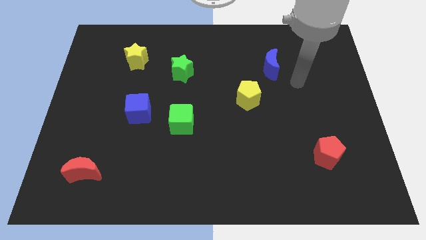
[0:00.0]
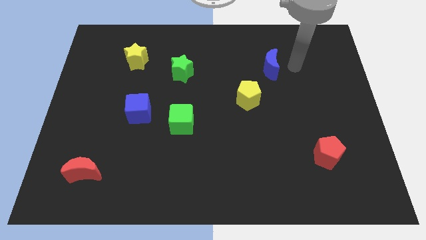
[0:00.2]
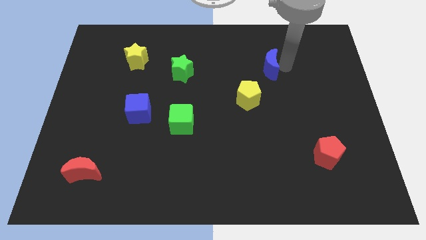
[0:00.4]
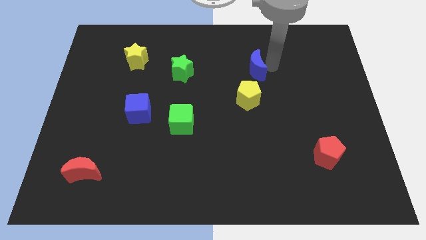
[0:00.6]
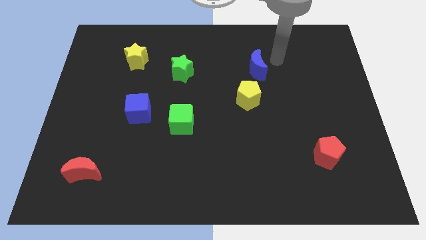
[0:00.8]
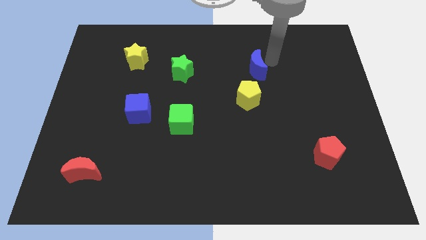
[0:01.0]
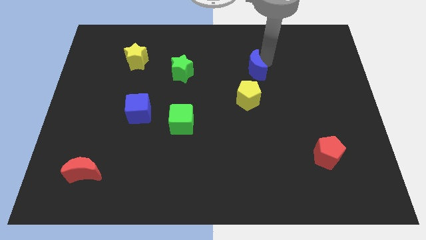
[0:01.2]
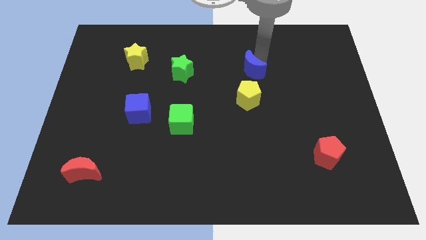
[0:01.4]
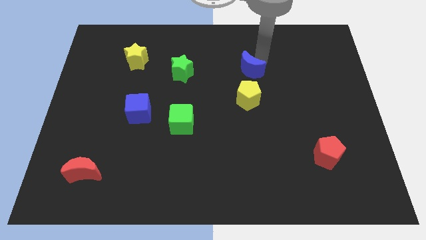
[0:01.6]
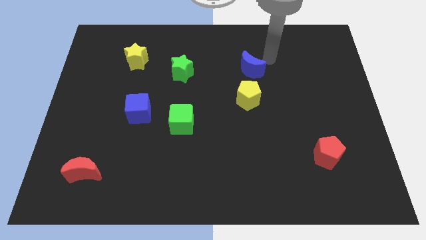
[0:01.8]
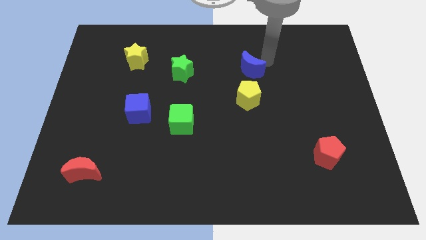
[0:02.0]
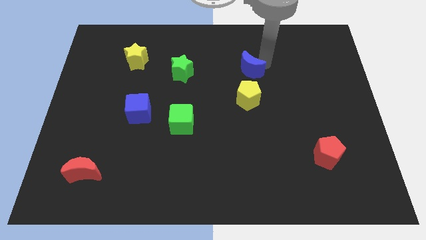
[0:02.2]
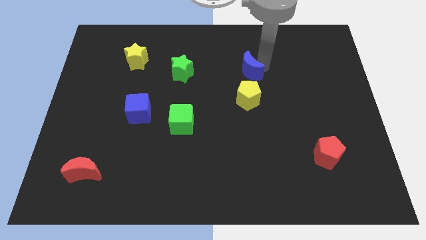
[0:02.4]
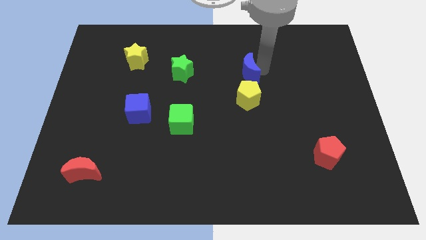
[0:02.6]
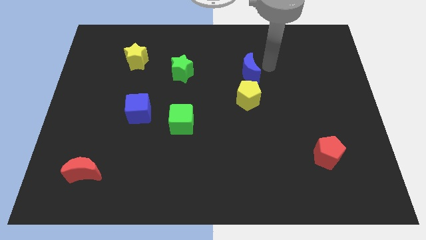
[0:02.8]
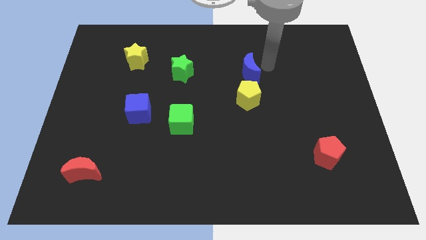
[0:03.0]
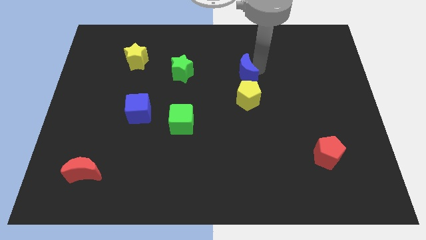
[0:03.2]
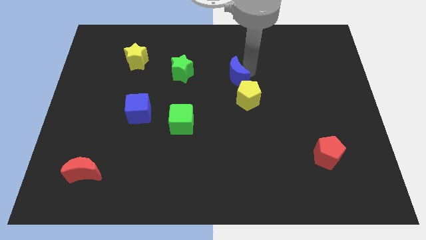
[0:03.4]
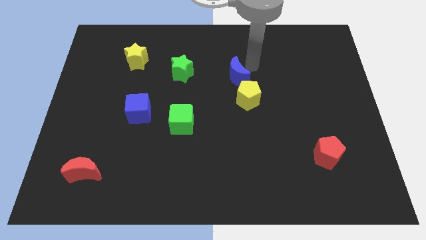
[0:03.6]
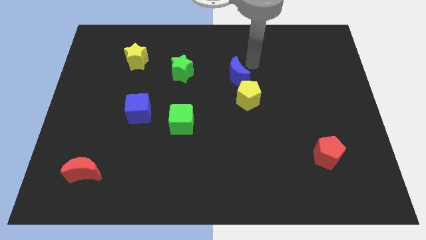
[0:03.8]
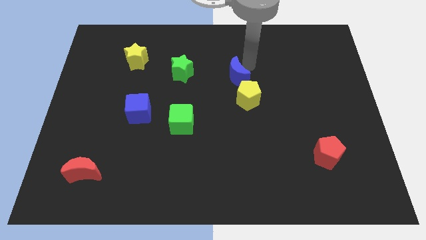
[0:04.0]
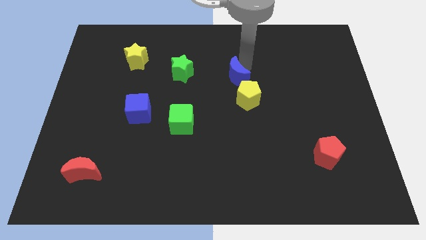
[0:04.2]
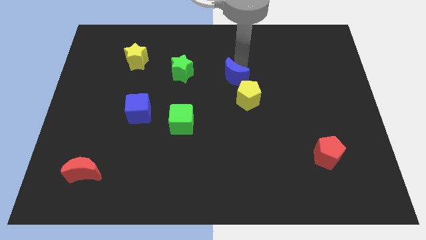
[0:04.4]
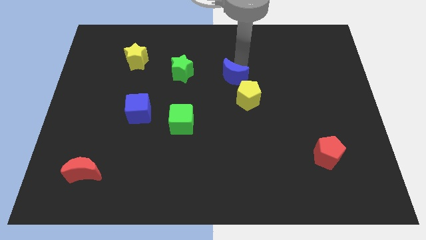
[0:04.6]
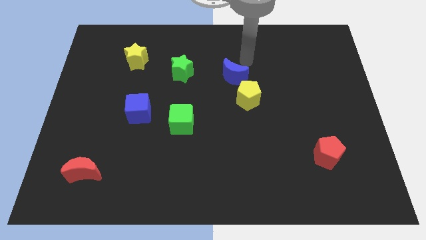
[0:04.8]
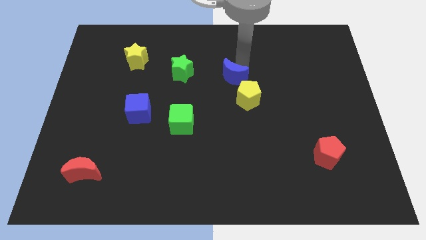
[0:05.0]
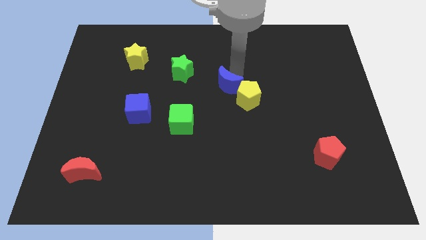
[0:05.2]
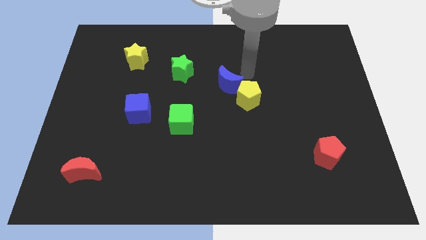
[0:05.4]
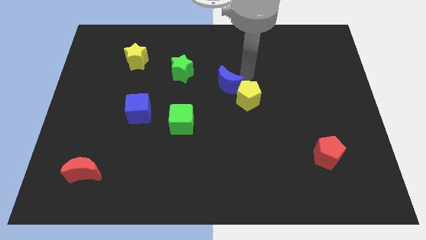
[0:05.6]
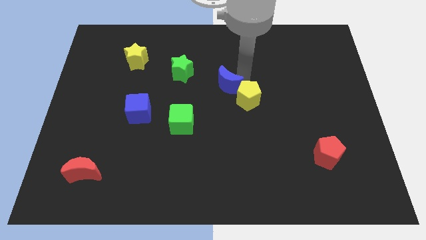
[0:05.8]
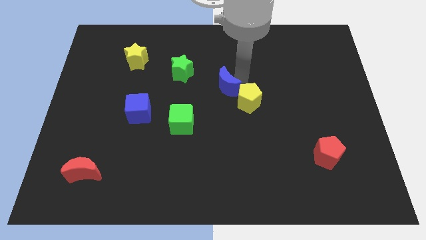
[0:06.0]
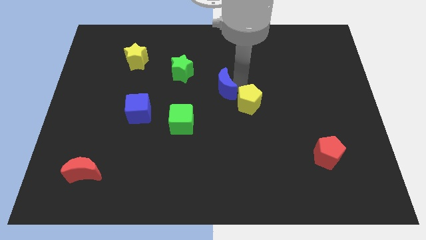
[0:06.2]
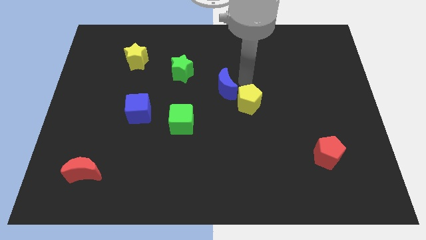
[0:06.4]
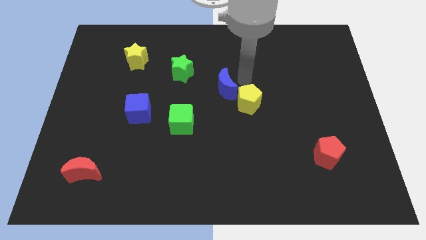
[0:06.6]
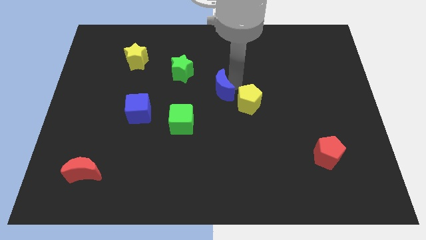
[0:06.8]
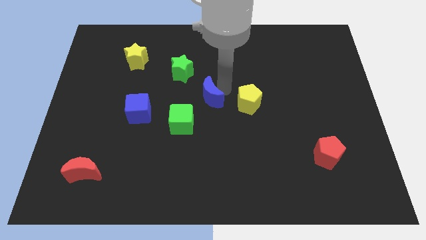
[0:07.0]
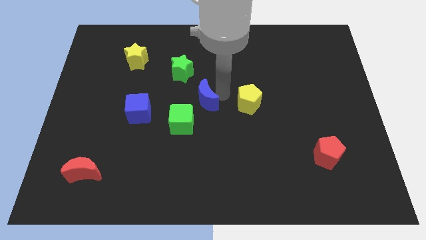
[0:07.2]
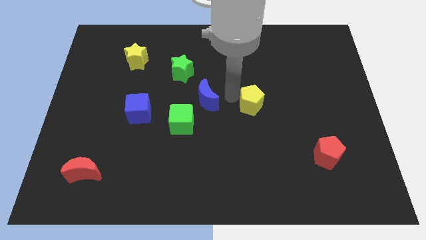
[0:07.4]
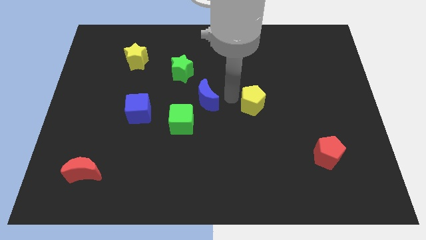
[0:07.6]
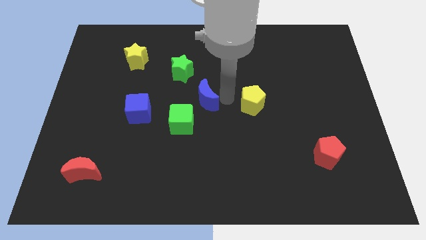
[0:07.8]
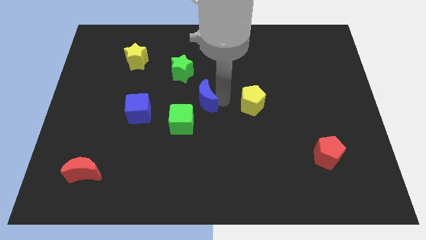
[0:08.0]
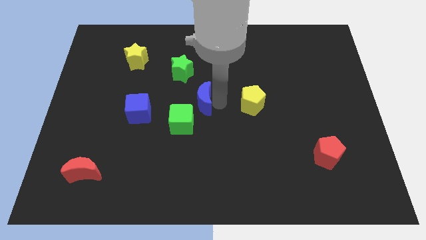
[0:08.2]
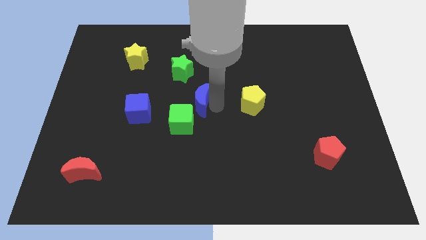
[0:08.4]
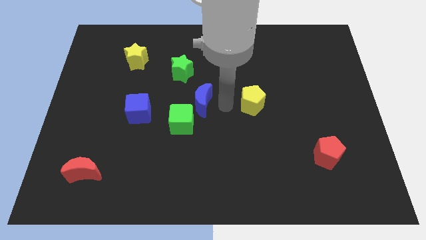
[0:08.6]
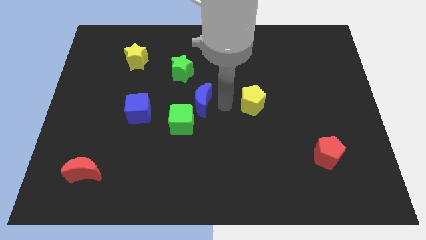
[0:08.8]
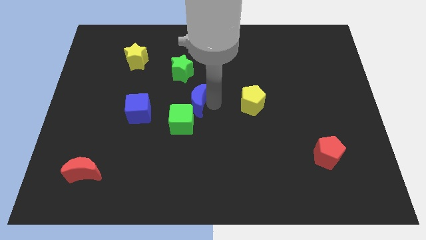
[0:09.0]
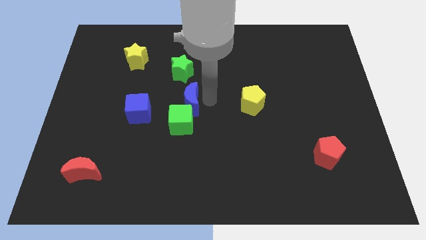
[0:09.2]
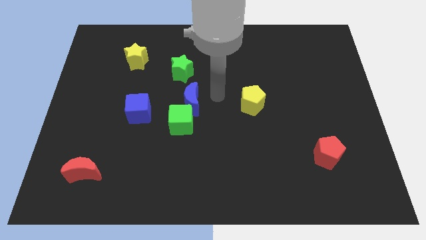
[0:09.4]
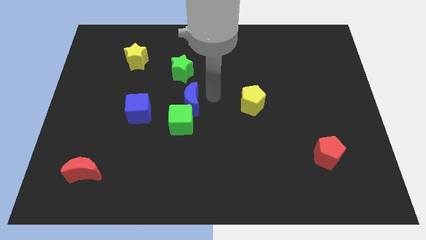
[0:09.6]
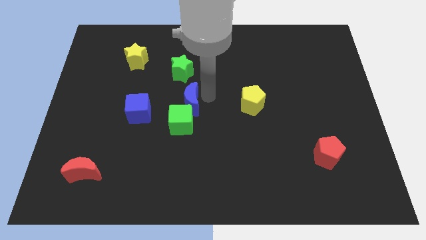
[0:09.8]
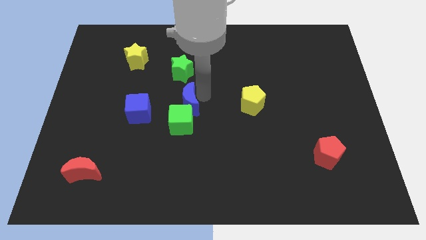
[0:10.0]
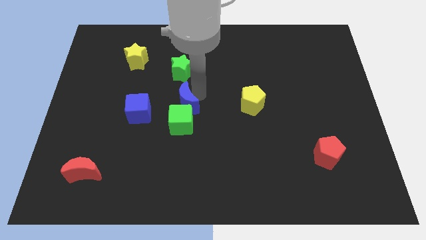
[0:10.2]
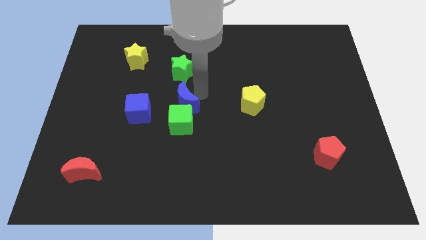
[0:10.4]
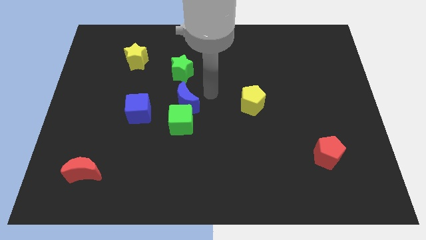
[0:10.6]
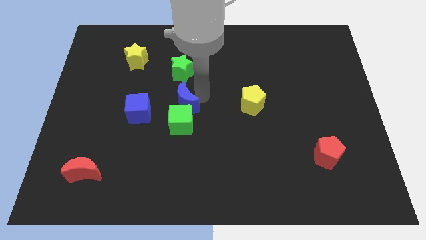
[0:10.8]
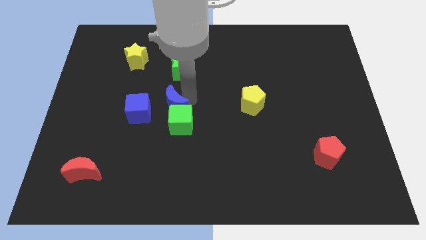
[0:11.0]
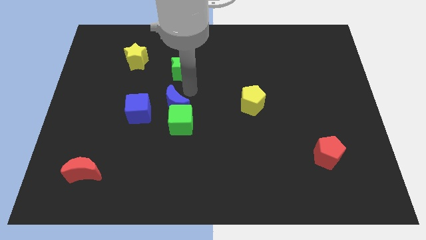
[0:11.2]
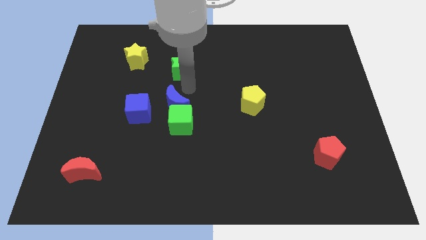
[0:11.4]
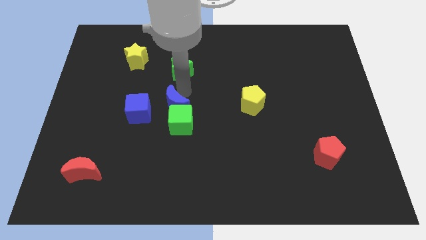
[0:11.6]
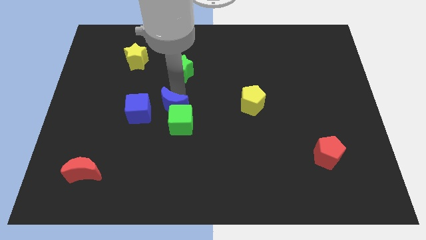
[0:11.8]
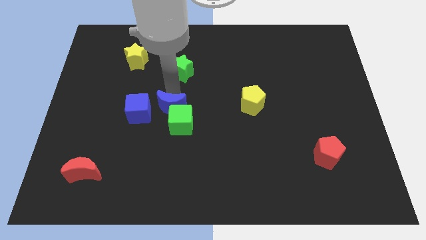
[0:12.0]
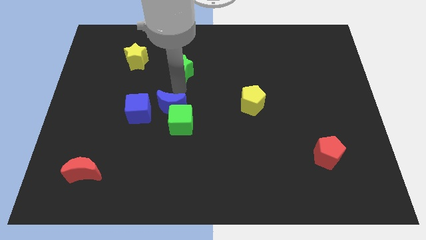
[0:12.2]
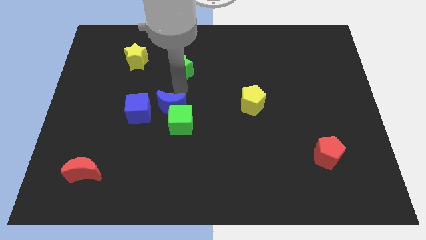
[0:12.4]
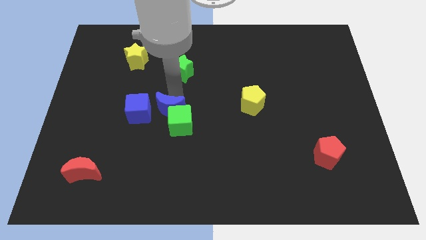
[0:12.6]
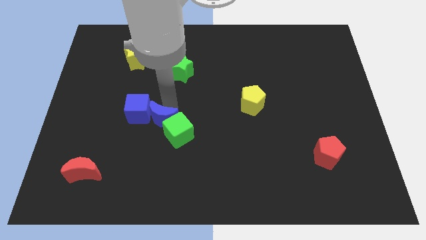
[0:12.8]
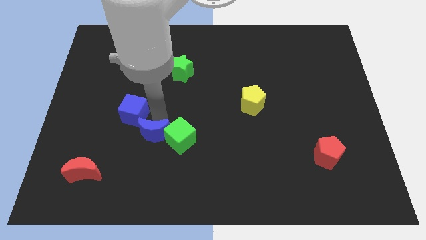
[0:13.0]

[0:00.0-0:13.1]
push the blue moon to the bottom left side of the green cube

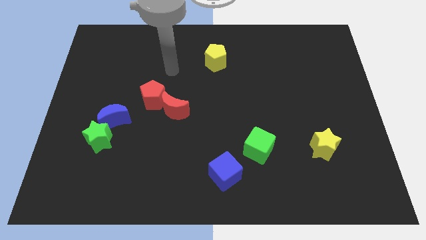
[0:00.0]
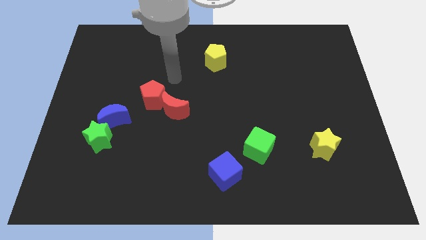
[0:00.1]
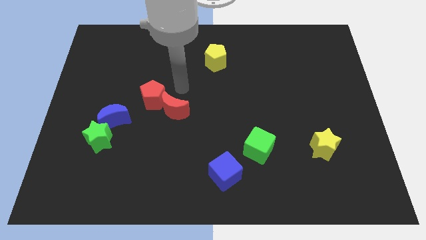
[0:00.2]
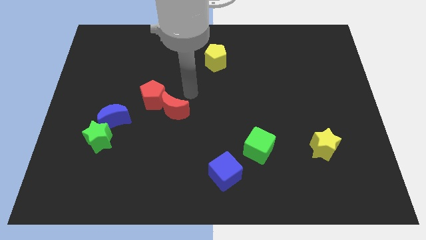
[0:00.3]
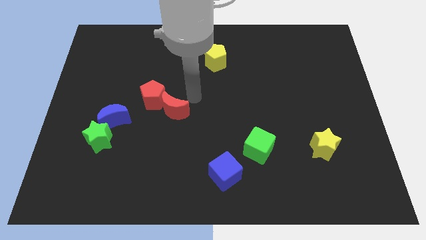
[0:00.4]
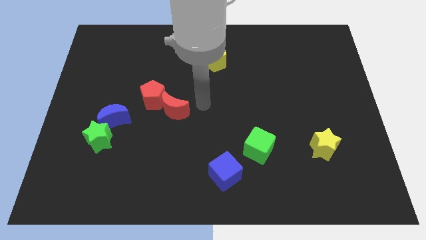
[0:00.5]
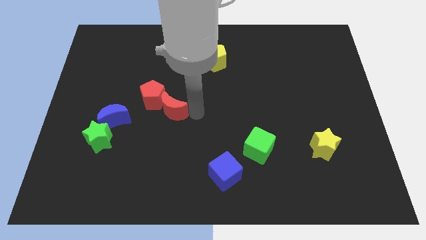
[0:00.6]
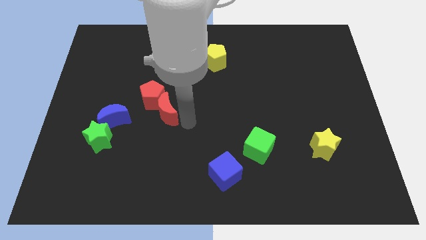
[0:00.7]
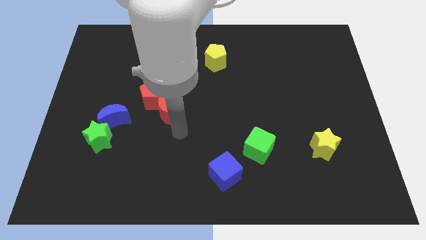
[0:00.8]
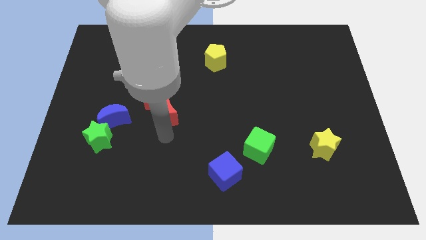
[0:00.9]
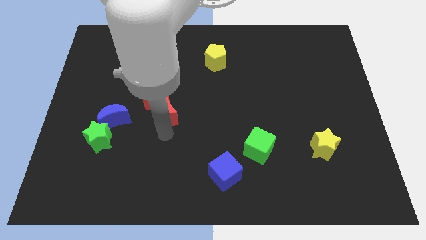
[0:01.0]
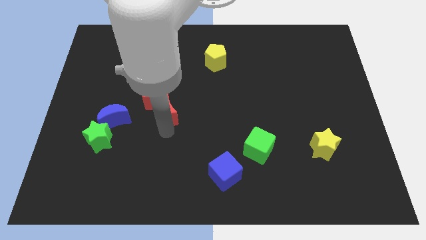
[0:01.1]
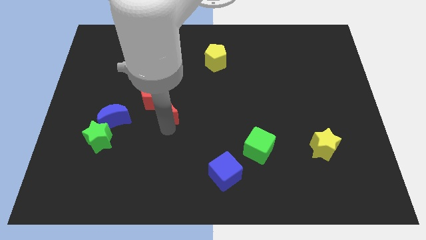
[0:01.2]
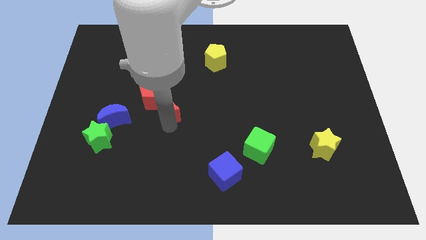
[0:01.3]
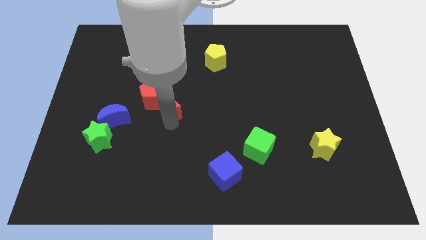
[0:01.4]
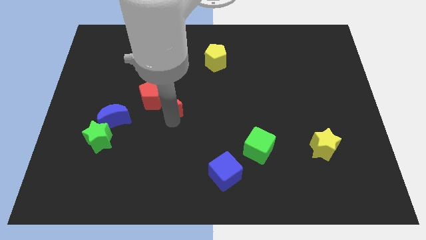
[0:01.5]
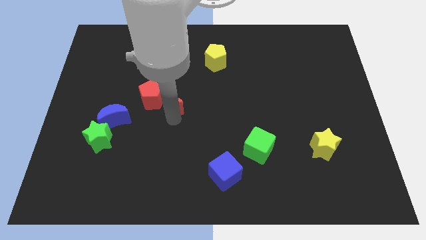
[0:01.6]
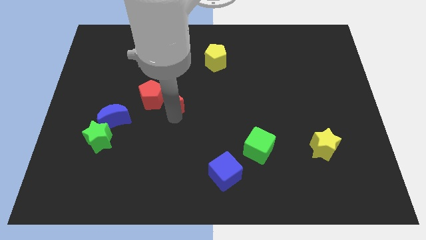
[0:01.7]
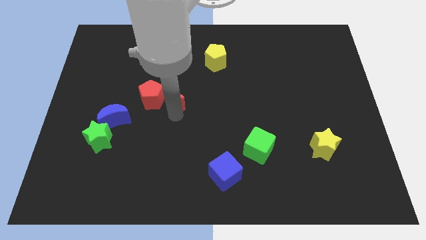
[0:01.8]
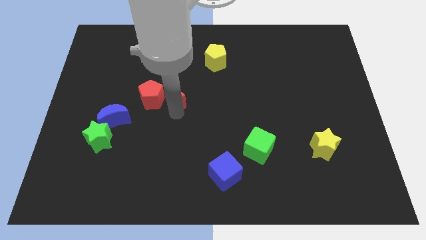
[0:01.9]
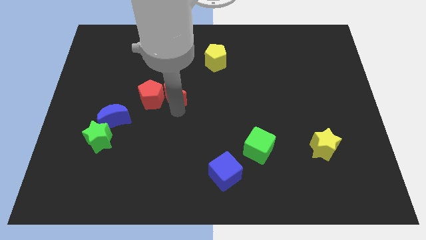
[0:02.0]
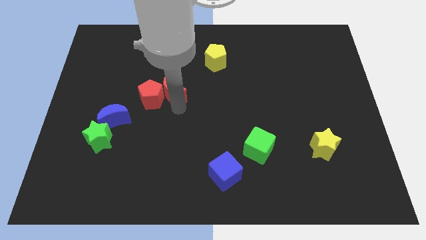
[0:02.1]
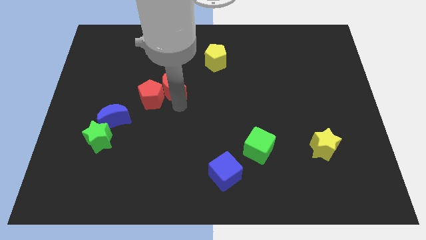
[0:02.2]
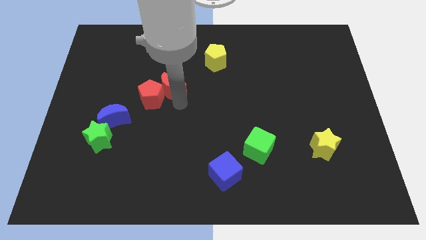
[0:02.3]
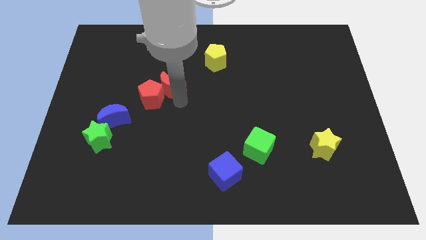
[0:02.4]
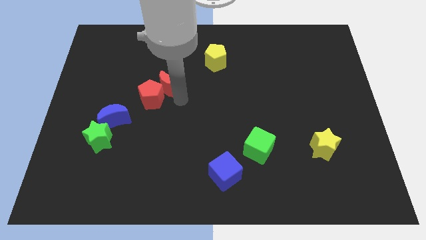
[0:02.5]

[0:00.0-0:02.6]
put the red moon to the top side of the red pentagon
